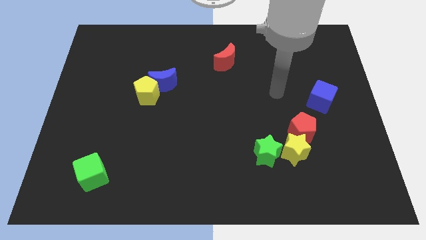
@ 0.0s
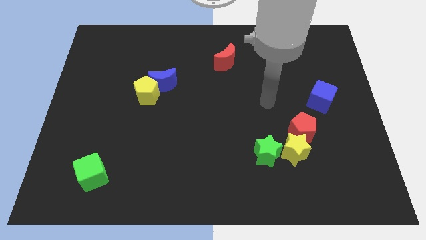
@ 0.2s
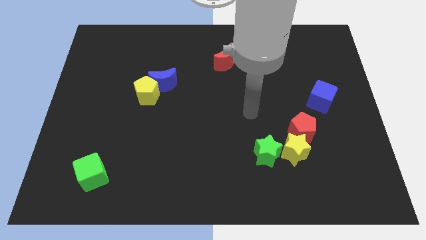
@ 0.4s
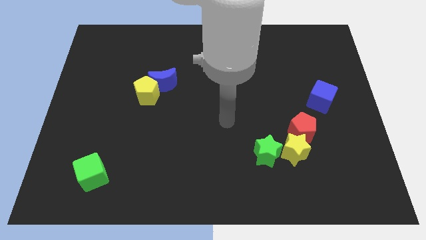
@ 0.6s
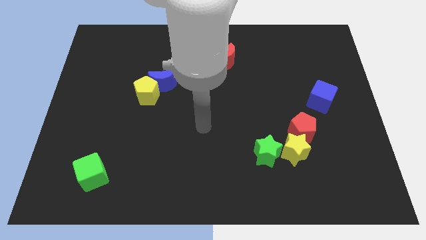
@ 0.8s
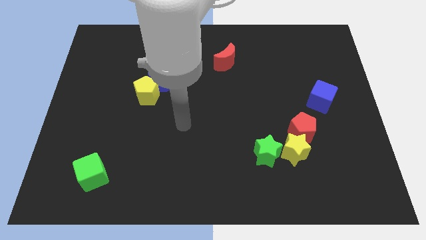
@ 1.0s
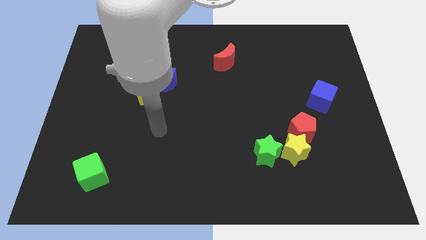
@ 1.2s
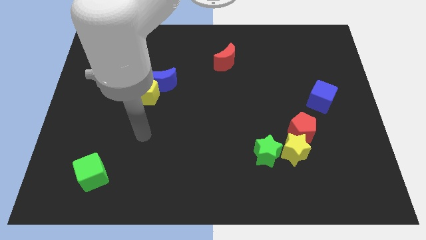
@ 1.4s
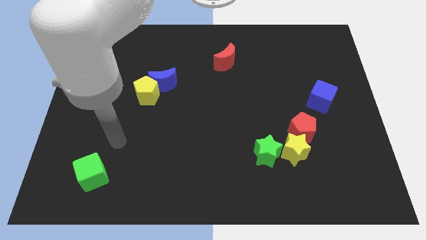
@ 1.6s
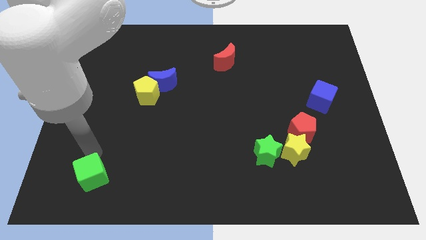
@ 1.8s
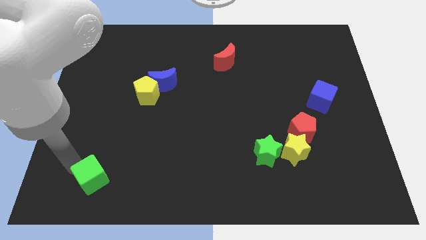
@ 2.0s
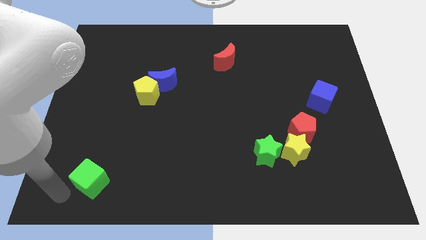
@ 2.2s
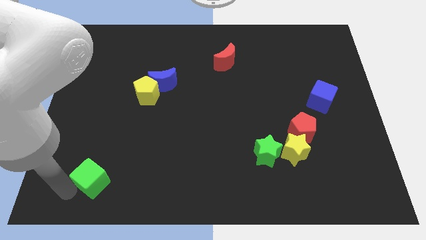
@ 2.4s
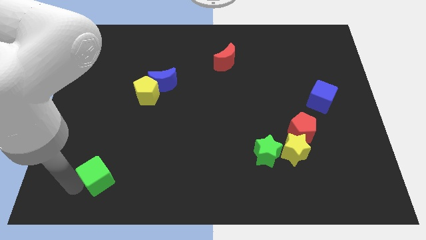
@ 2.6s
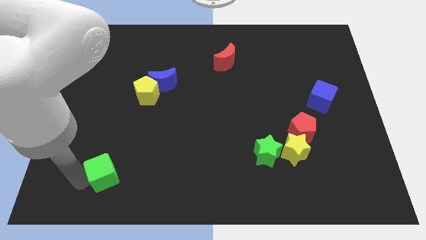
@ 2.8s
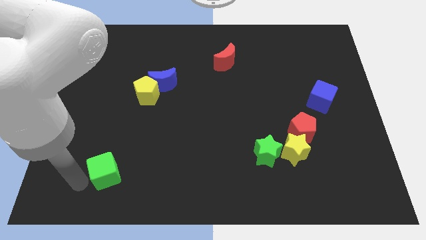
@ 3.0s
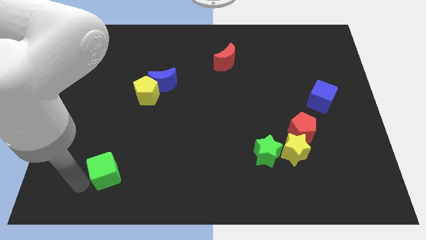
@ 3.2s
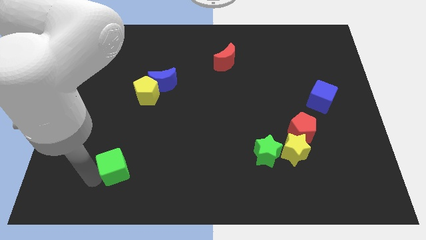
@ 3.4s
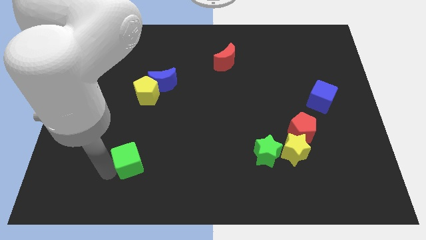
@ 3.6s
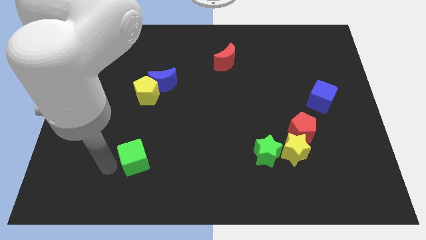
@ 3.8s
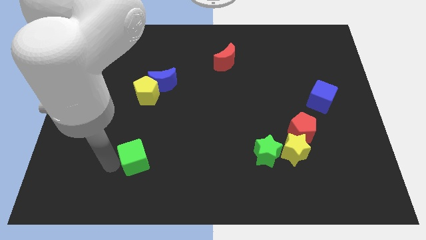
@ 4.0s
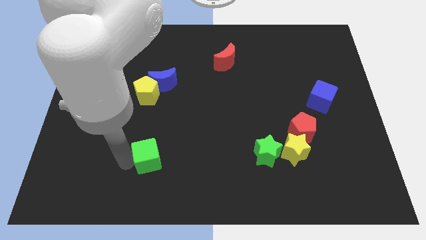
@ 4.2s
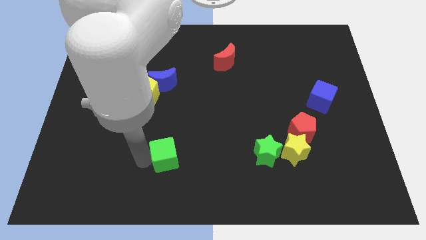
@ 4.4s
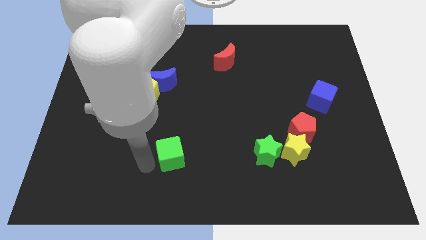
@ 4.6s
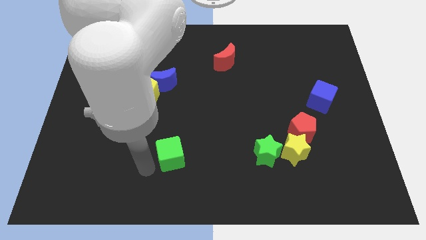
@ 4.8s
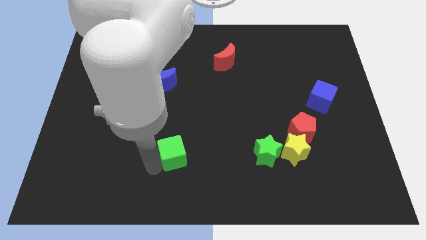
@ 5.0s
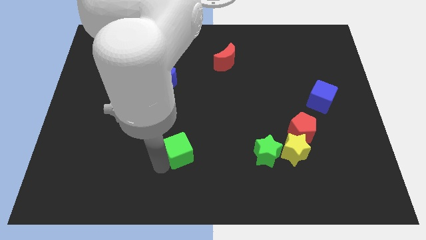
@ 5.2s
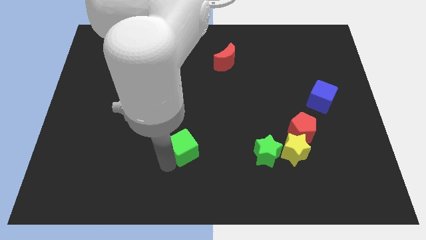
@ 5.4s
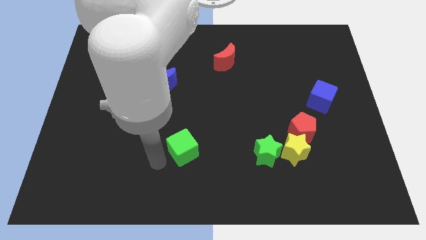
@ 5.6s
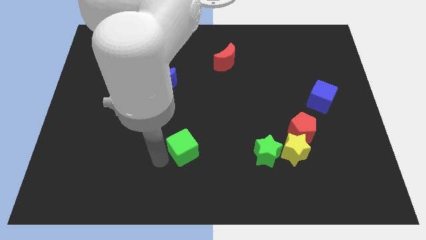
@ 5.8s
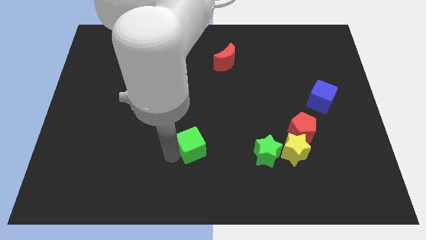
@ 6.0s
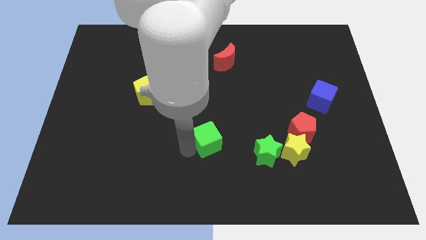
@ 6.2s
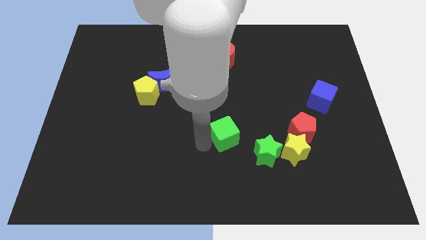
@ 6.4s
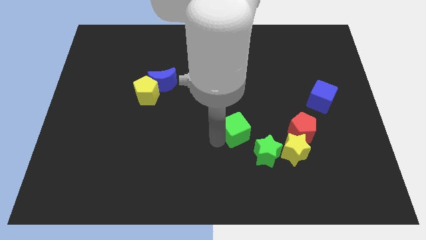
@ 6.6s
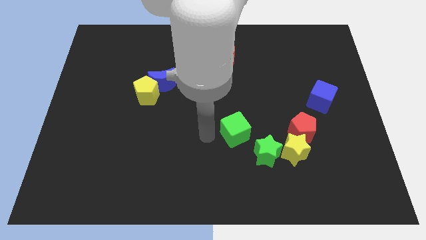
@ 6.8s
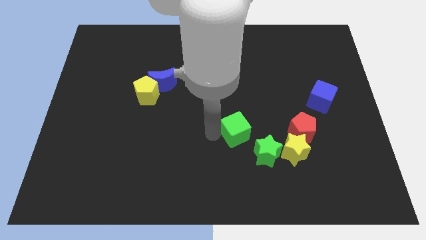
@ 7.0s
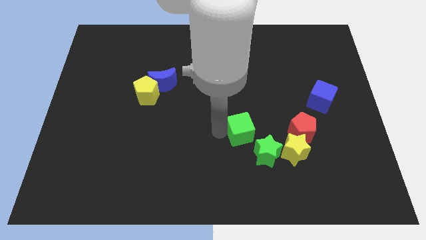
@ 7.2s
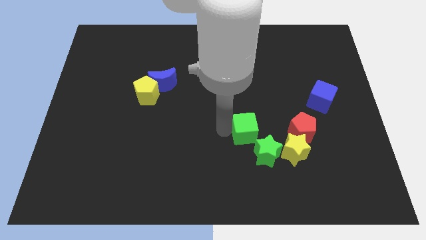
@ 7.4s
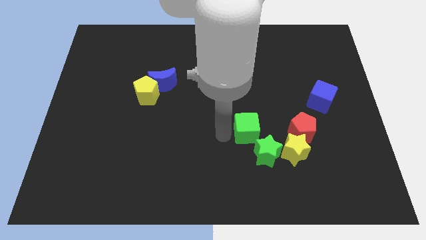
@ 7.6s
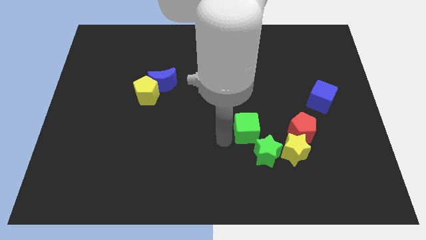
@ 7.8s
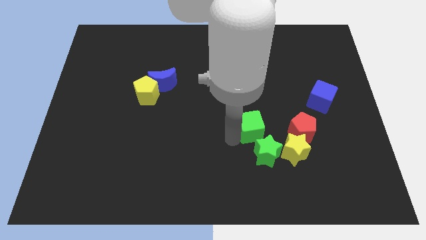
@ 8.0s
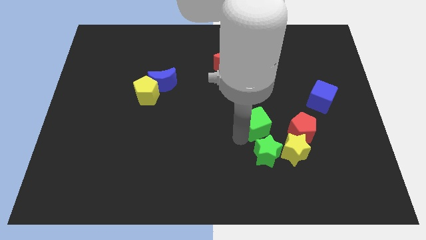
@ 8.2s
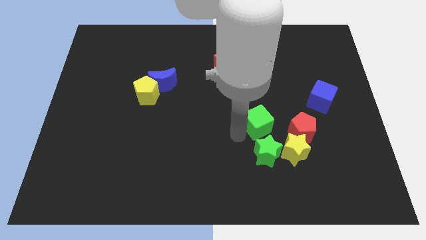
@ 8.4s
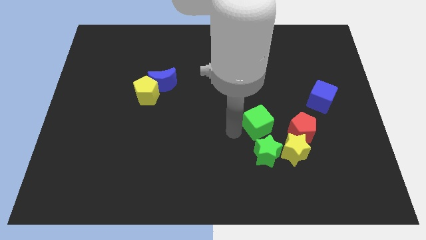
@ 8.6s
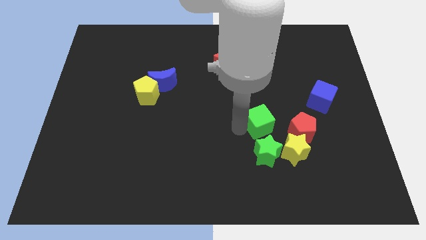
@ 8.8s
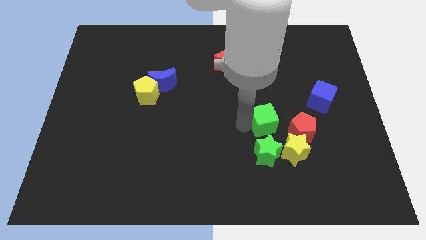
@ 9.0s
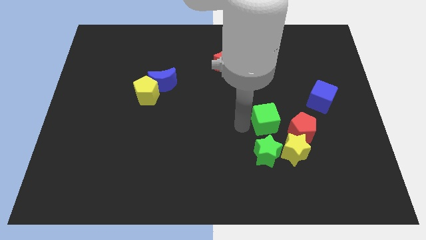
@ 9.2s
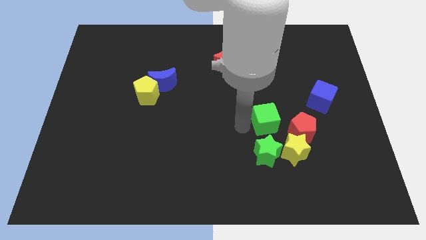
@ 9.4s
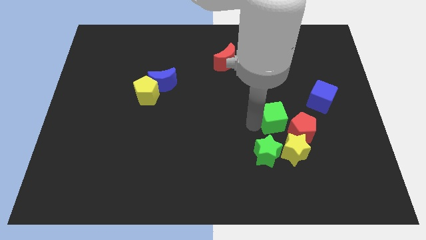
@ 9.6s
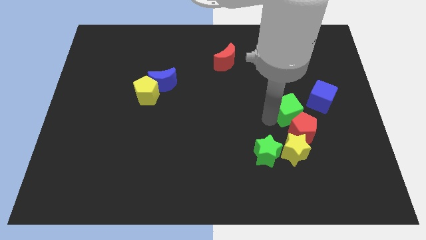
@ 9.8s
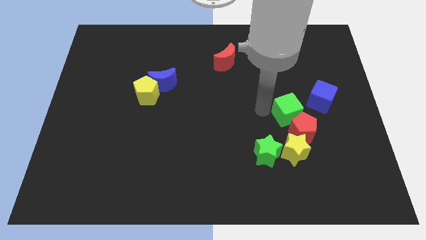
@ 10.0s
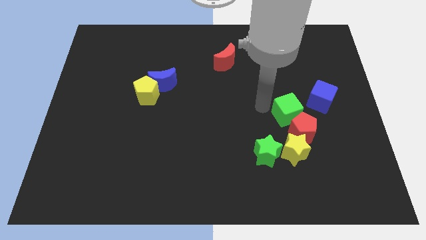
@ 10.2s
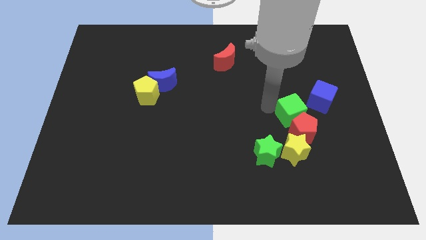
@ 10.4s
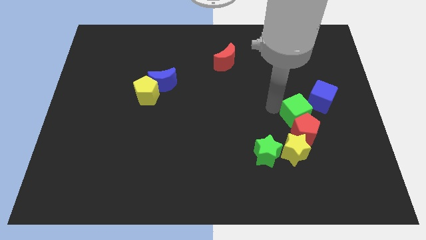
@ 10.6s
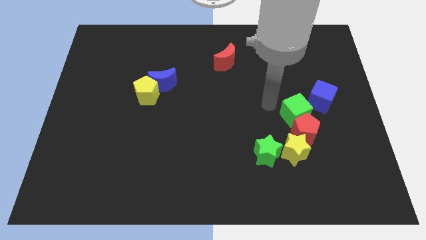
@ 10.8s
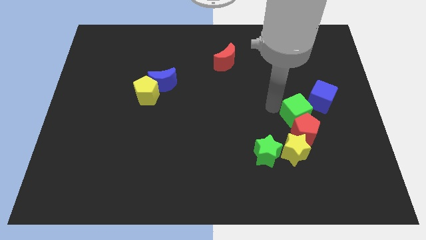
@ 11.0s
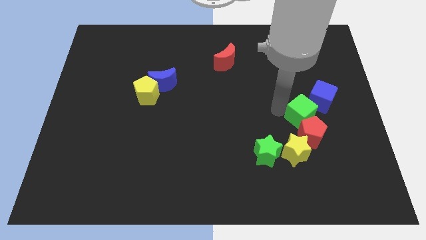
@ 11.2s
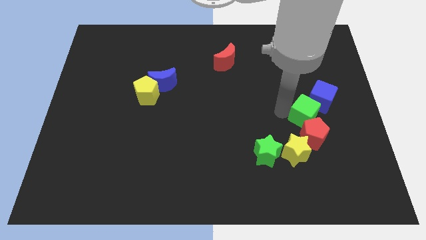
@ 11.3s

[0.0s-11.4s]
push the green cube to the bottom side of the blue cube

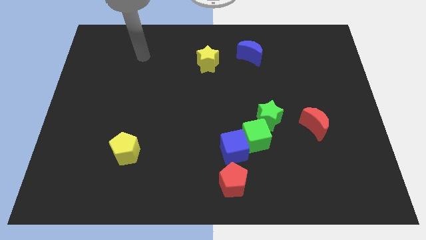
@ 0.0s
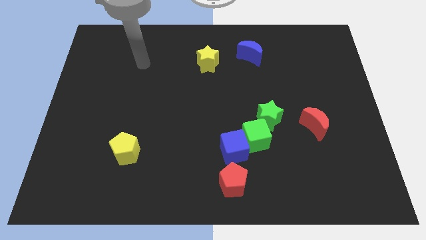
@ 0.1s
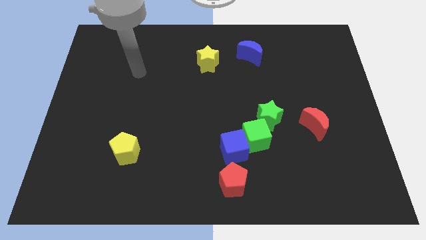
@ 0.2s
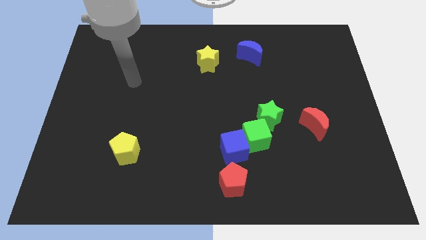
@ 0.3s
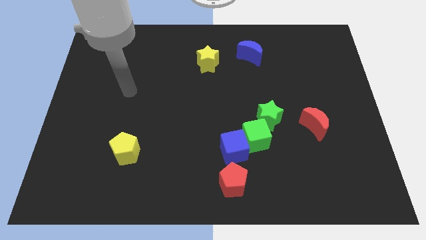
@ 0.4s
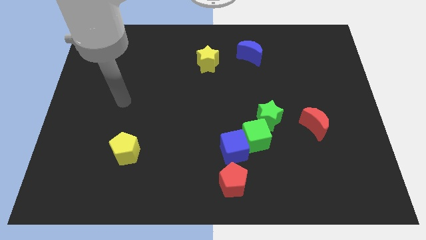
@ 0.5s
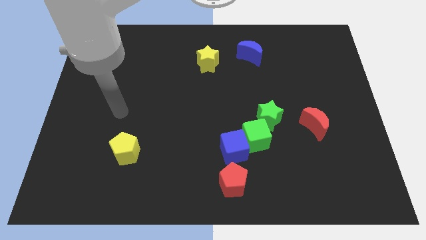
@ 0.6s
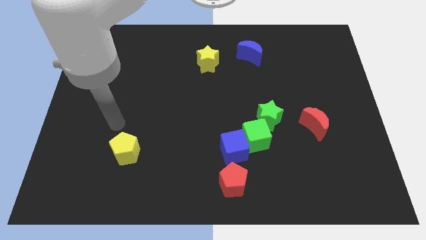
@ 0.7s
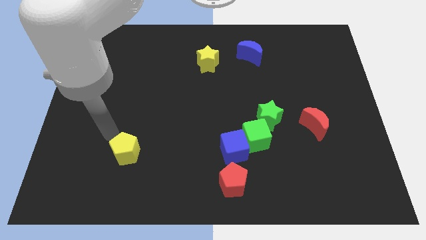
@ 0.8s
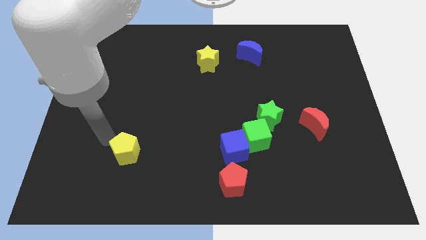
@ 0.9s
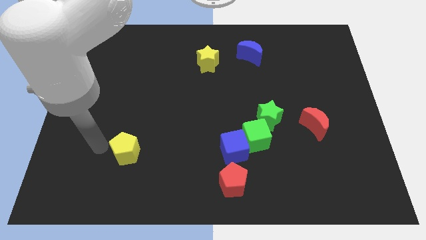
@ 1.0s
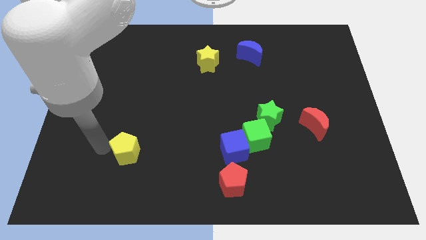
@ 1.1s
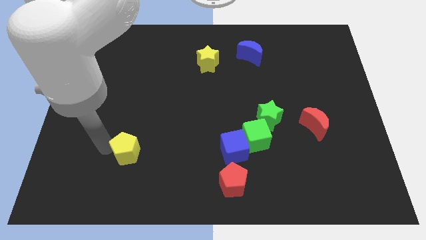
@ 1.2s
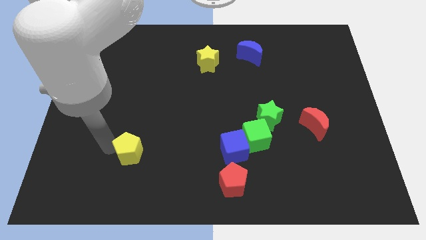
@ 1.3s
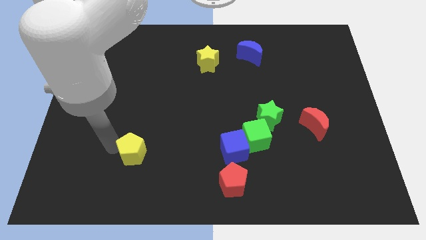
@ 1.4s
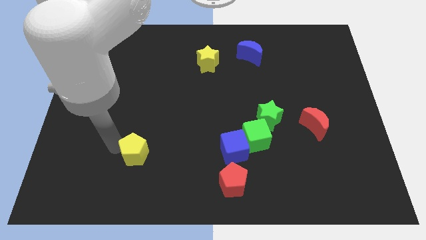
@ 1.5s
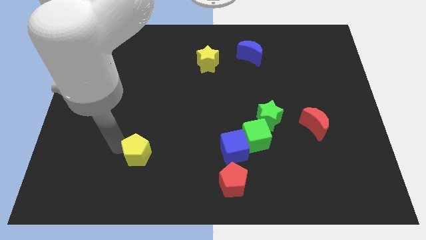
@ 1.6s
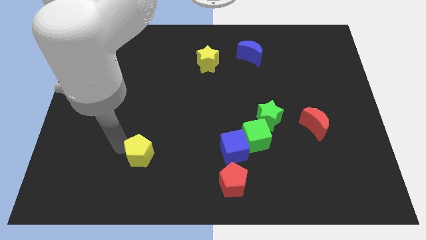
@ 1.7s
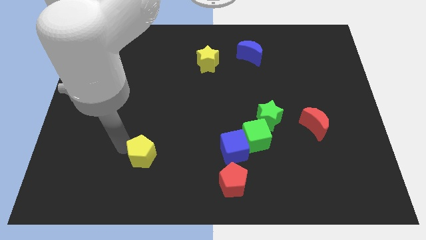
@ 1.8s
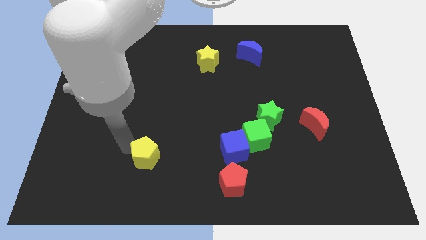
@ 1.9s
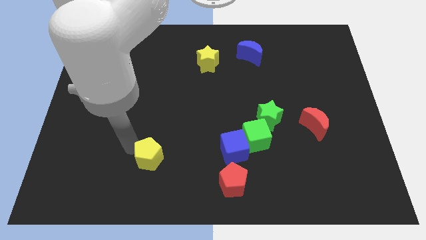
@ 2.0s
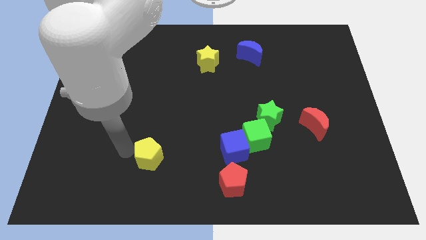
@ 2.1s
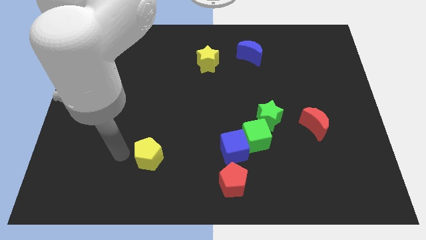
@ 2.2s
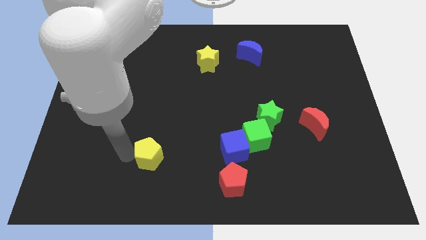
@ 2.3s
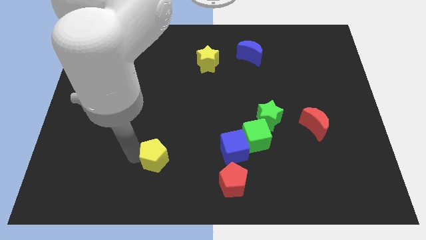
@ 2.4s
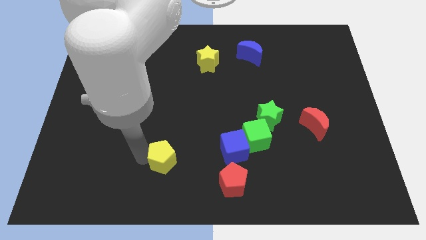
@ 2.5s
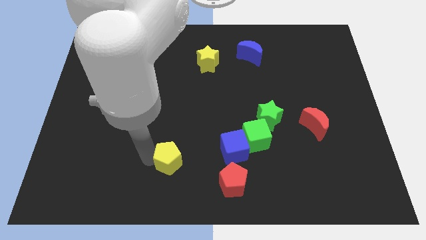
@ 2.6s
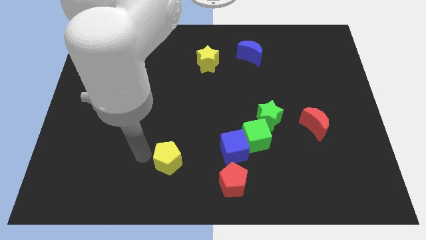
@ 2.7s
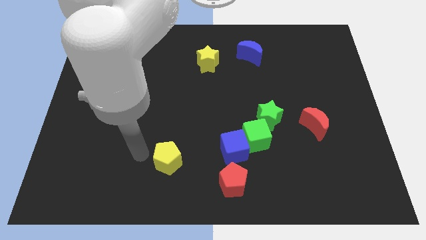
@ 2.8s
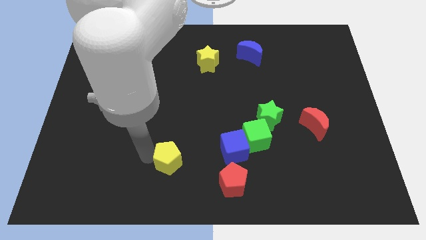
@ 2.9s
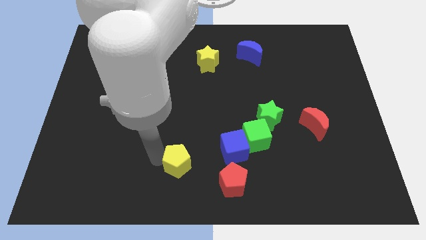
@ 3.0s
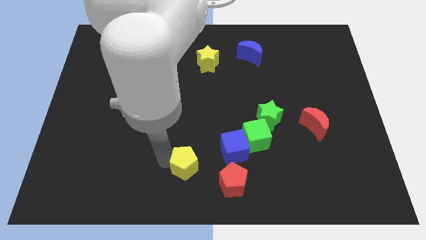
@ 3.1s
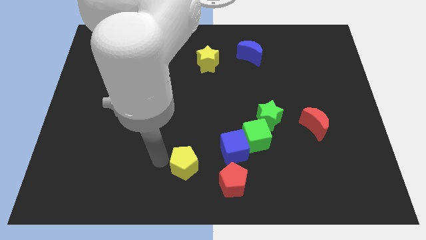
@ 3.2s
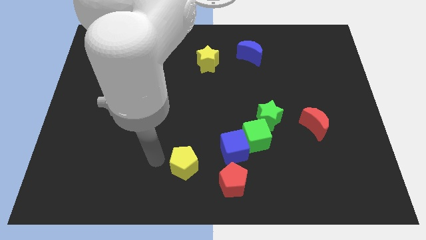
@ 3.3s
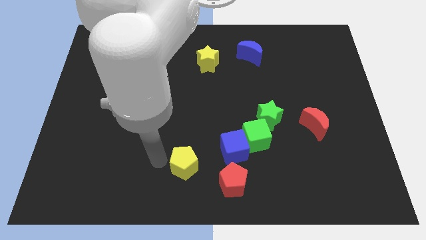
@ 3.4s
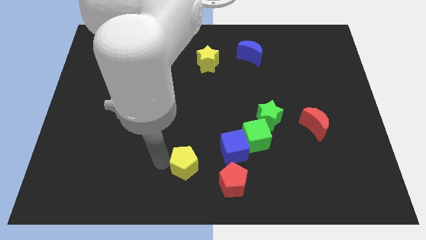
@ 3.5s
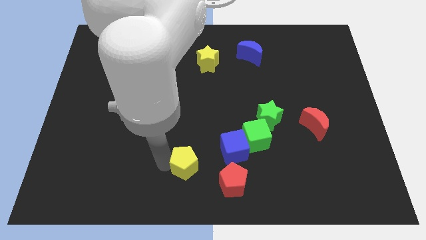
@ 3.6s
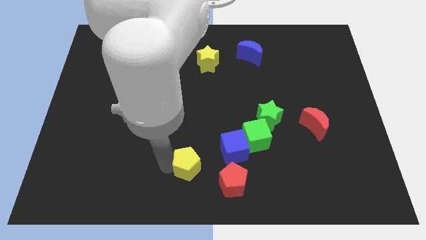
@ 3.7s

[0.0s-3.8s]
put the yellow pentagon diagonally down and to the left of the blue cube
